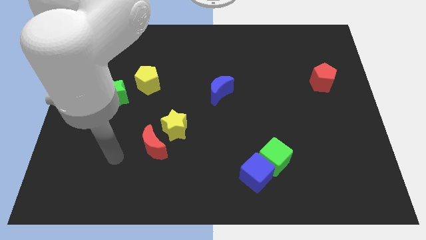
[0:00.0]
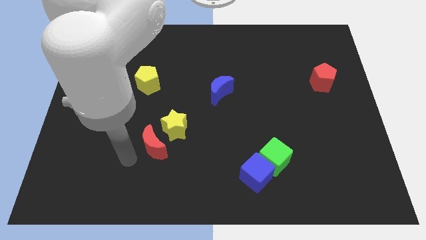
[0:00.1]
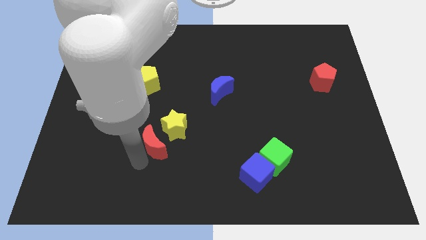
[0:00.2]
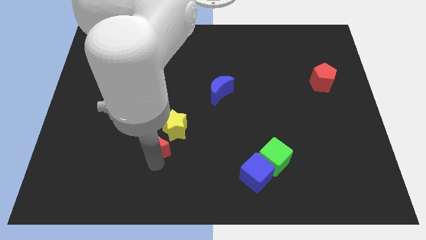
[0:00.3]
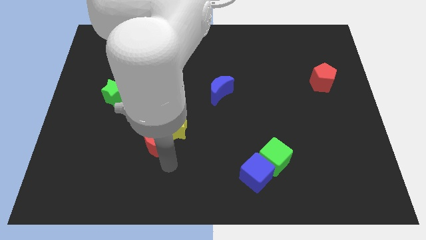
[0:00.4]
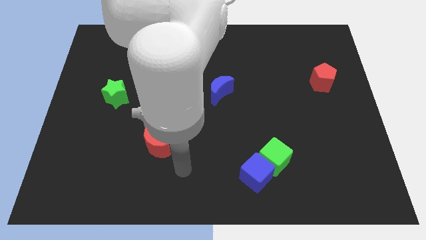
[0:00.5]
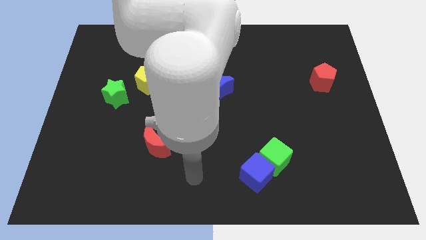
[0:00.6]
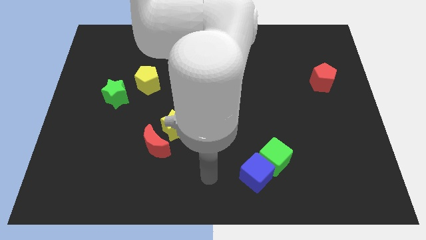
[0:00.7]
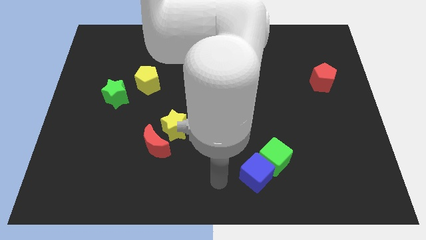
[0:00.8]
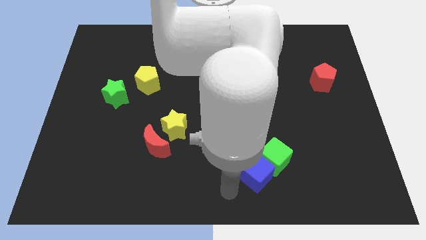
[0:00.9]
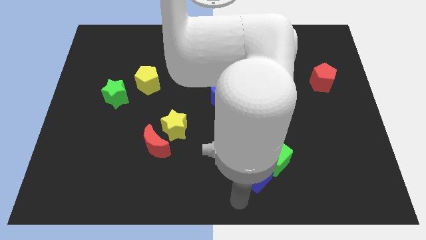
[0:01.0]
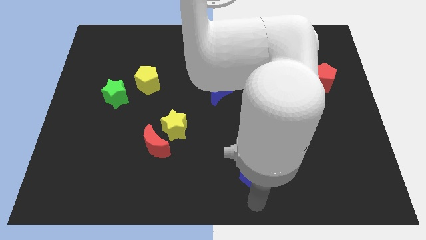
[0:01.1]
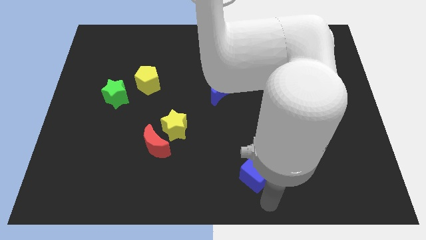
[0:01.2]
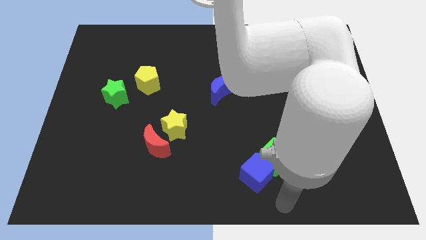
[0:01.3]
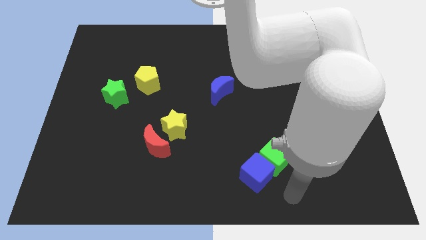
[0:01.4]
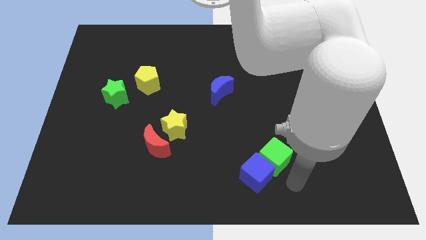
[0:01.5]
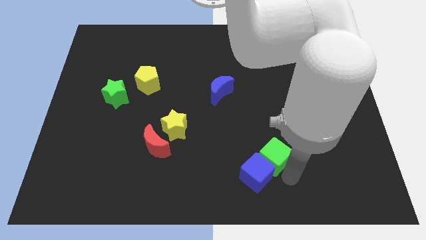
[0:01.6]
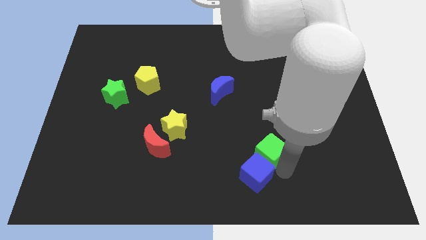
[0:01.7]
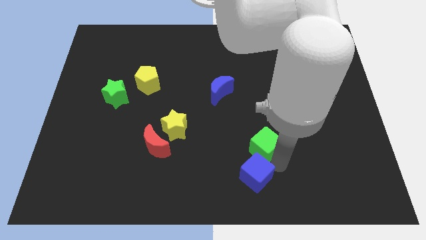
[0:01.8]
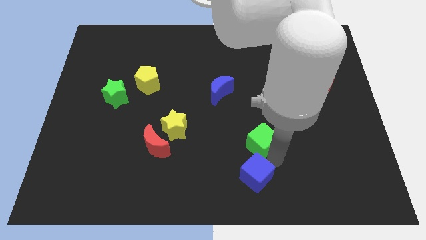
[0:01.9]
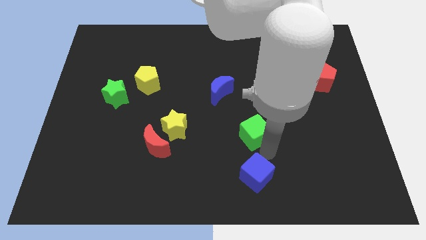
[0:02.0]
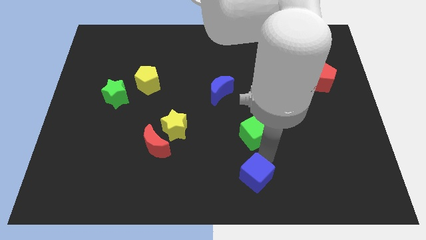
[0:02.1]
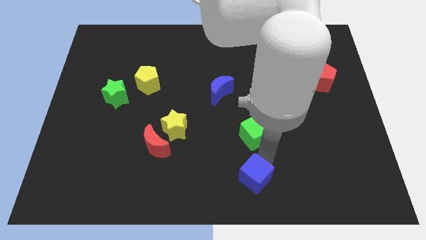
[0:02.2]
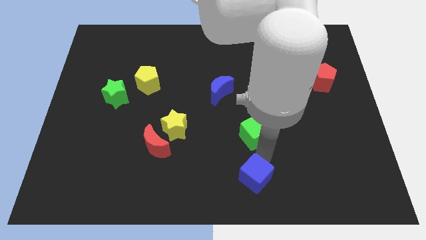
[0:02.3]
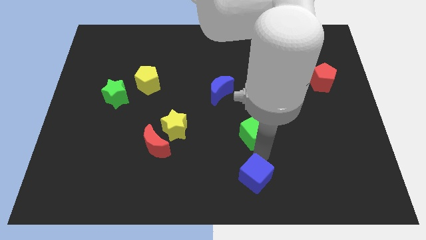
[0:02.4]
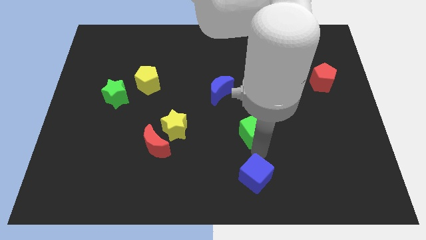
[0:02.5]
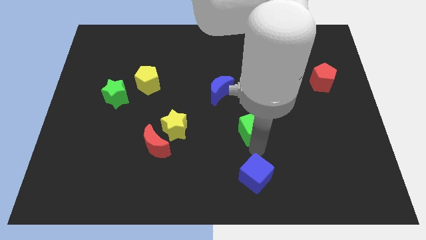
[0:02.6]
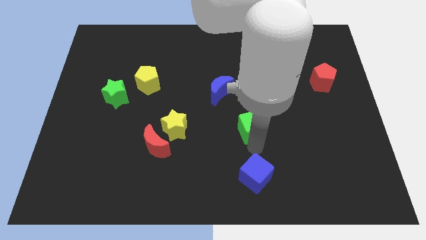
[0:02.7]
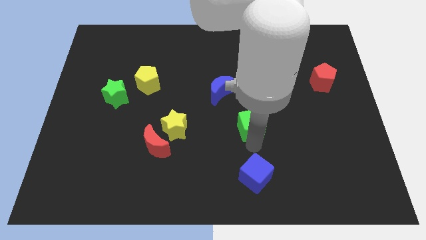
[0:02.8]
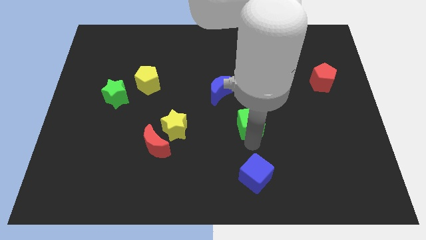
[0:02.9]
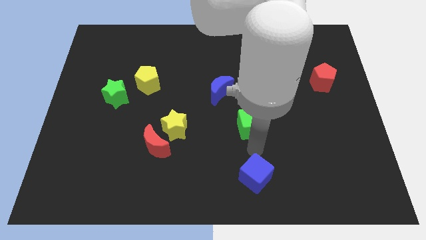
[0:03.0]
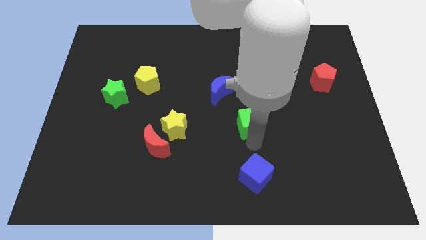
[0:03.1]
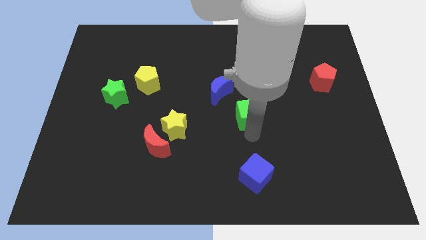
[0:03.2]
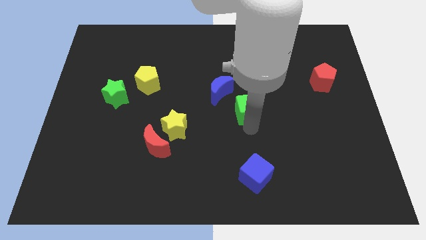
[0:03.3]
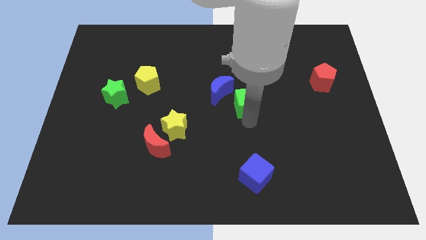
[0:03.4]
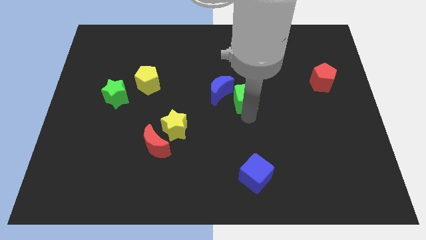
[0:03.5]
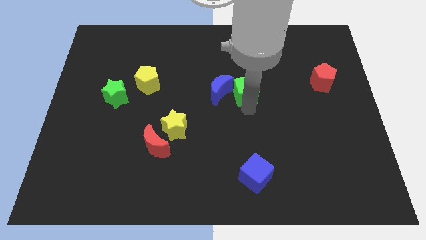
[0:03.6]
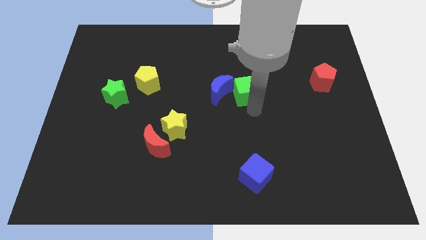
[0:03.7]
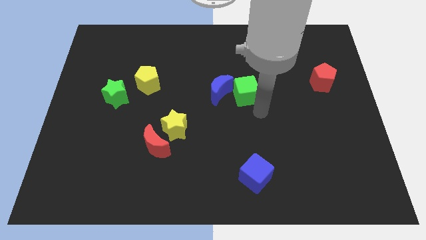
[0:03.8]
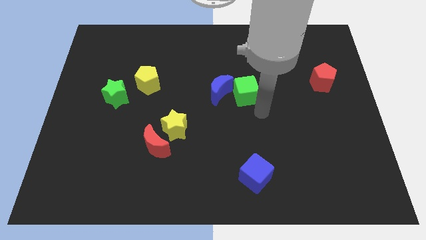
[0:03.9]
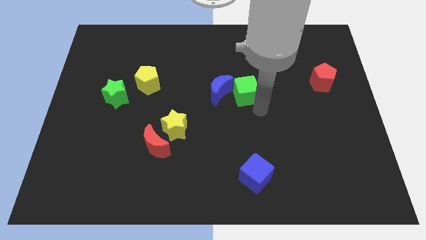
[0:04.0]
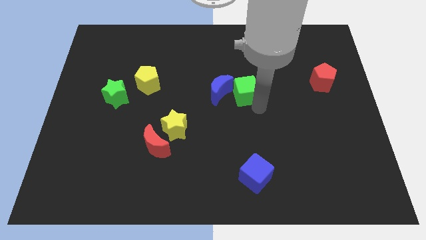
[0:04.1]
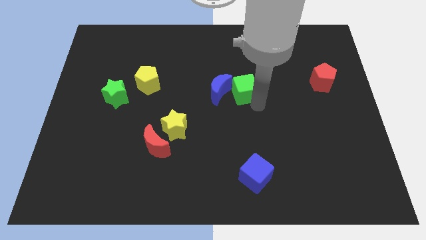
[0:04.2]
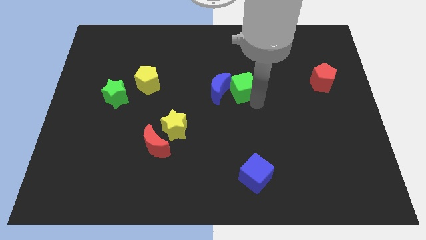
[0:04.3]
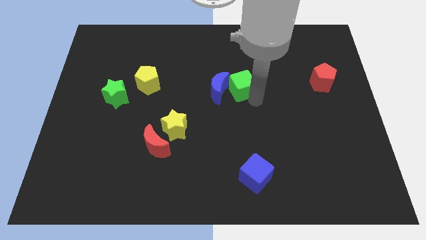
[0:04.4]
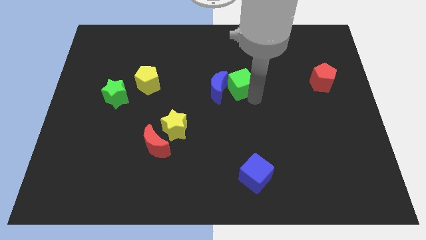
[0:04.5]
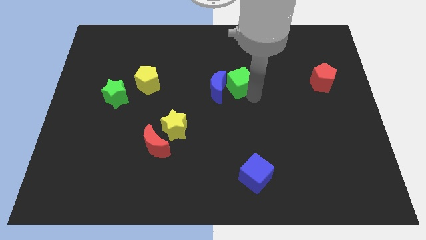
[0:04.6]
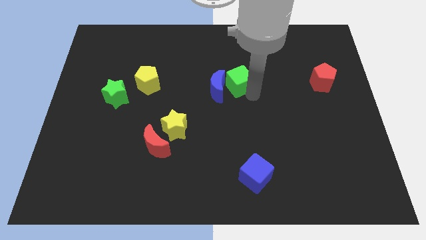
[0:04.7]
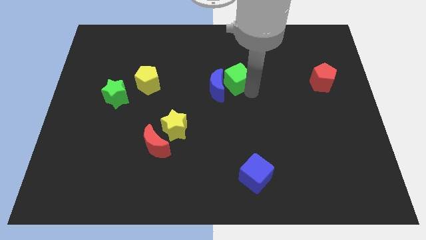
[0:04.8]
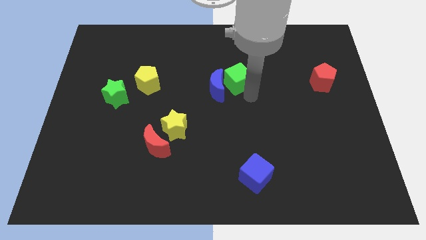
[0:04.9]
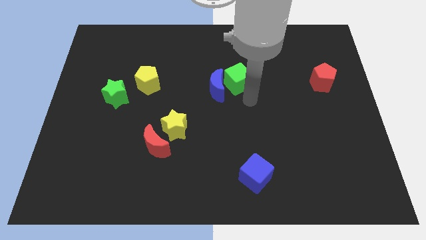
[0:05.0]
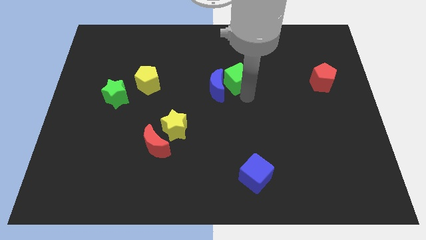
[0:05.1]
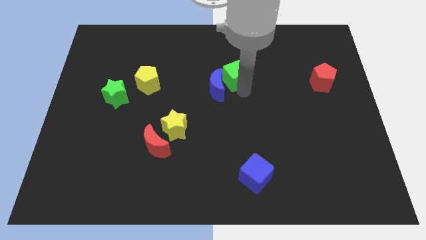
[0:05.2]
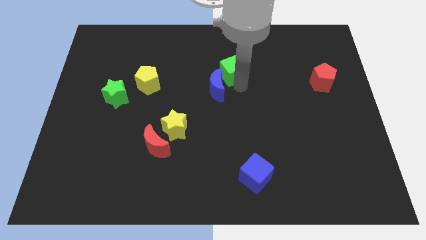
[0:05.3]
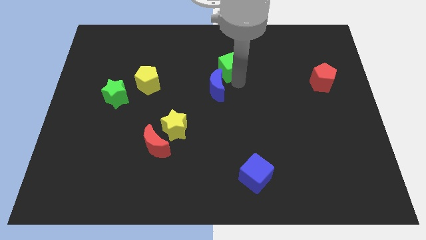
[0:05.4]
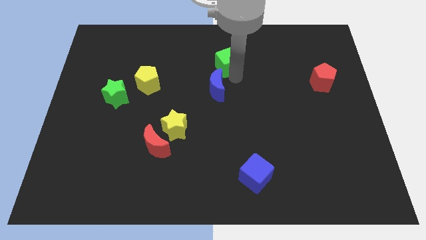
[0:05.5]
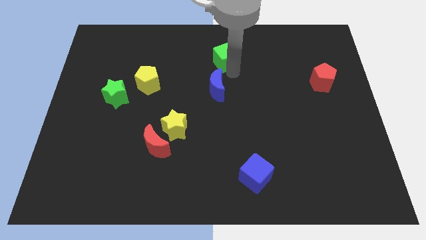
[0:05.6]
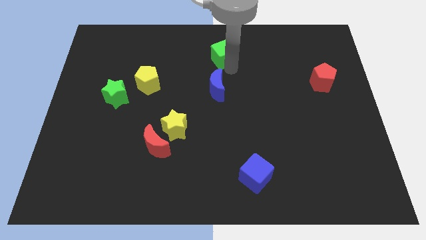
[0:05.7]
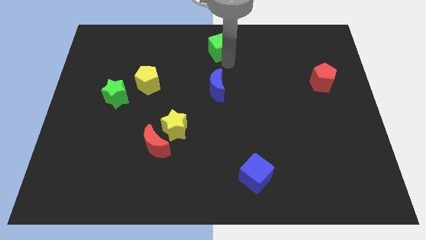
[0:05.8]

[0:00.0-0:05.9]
put the green cube to the top side

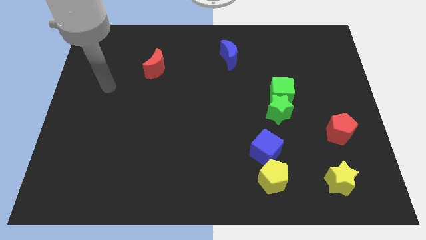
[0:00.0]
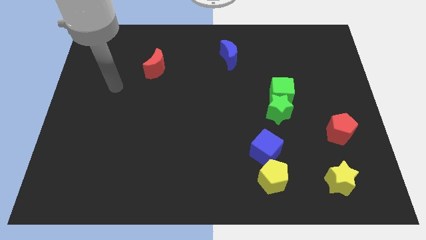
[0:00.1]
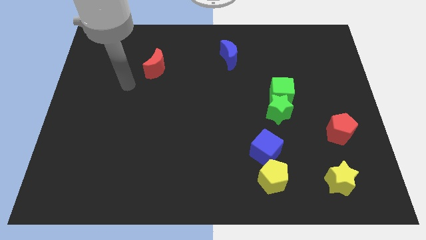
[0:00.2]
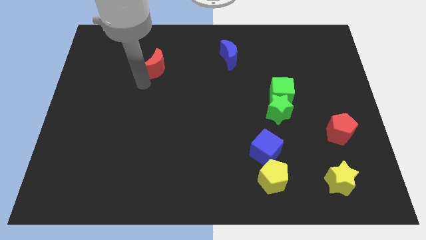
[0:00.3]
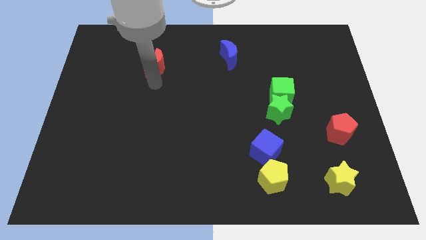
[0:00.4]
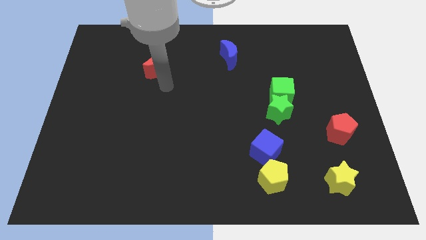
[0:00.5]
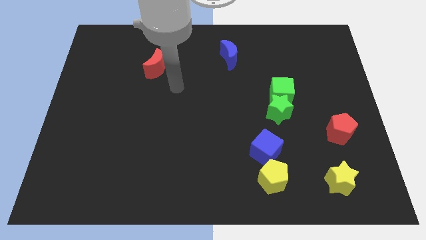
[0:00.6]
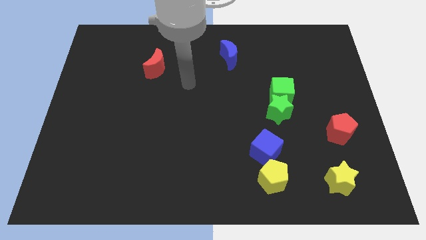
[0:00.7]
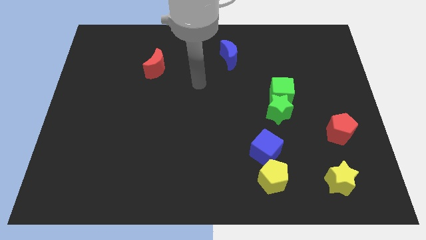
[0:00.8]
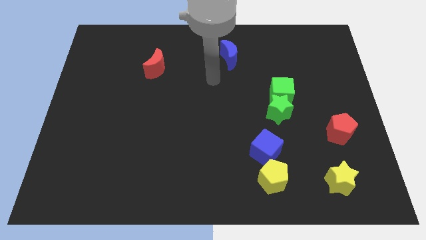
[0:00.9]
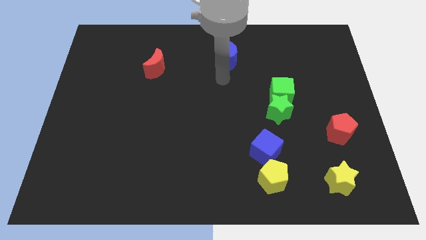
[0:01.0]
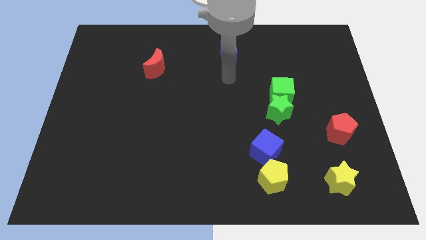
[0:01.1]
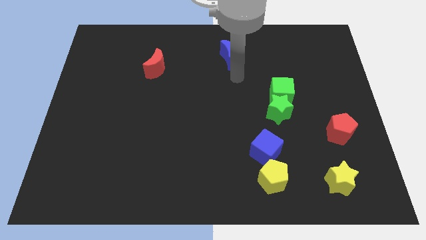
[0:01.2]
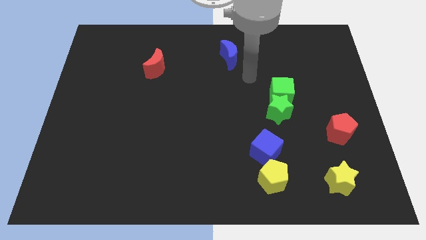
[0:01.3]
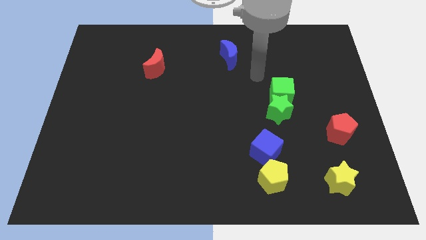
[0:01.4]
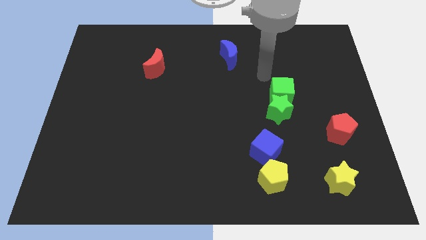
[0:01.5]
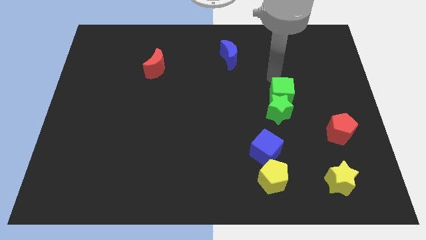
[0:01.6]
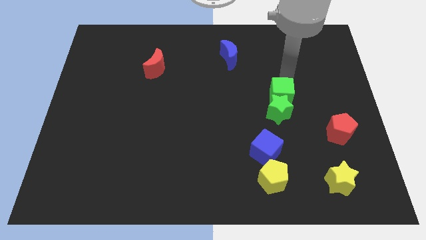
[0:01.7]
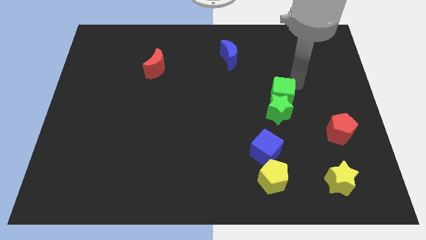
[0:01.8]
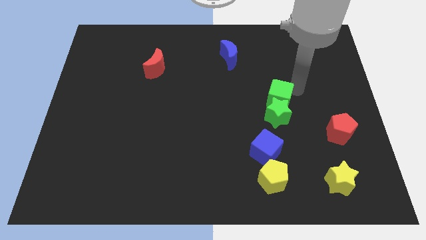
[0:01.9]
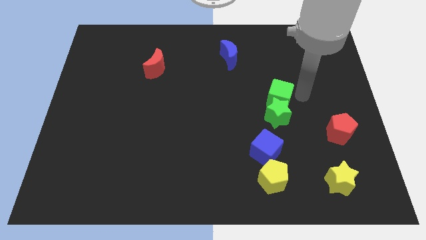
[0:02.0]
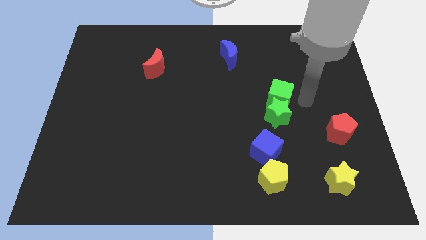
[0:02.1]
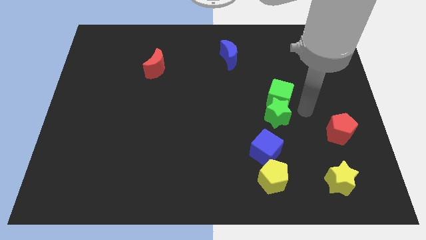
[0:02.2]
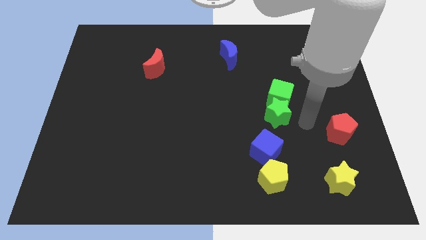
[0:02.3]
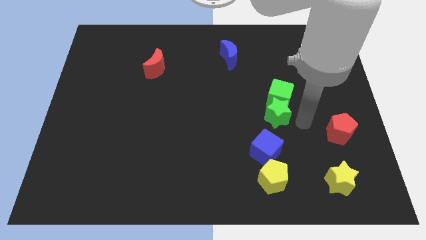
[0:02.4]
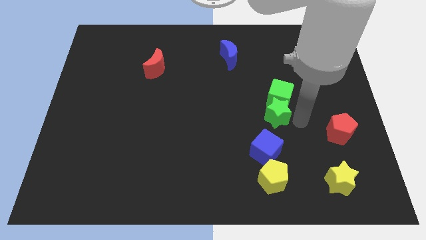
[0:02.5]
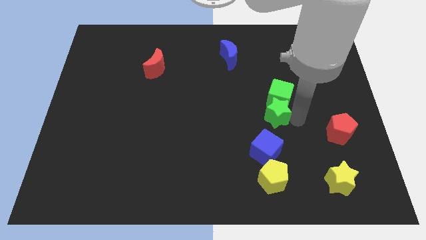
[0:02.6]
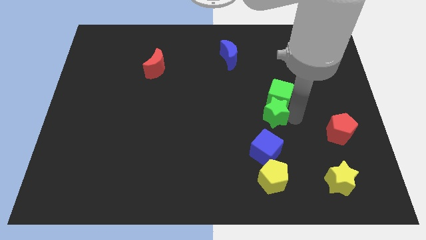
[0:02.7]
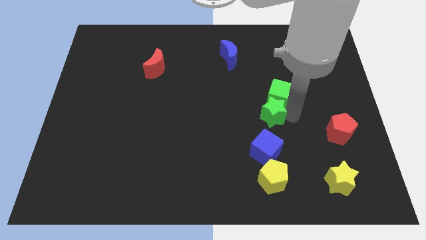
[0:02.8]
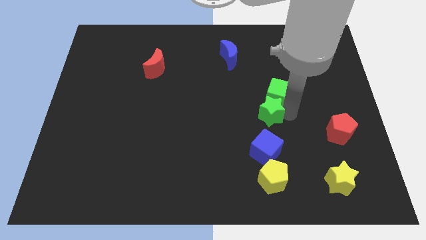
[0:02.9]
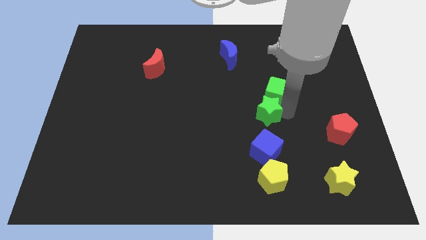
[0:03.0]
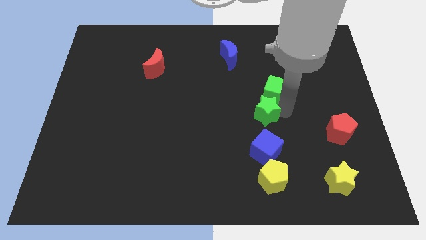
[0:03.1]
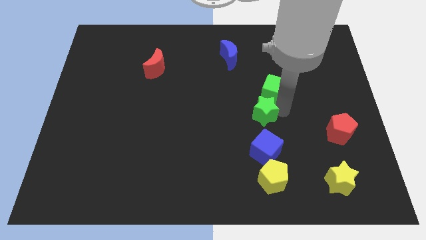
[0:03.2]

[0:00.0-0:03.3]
move the green star to the middle
